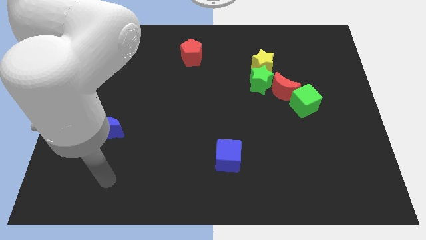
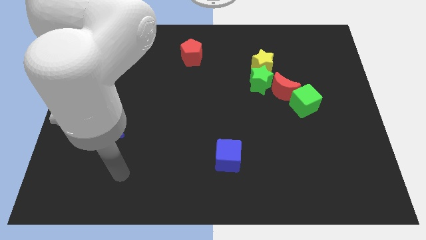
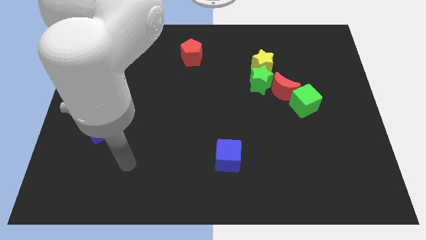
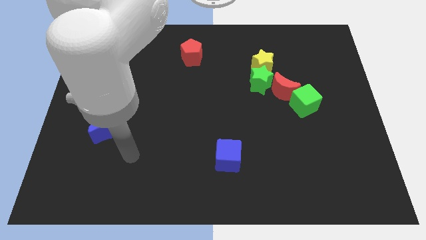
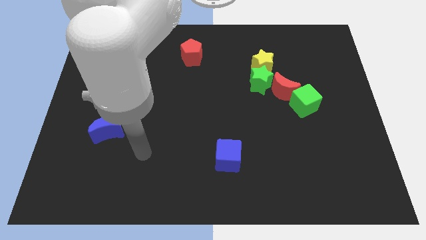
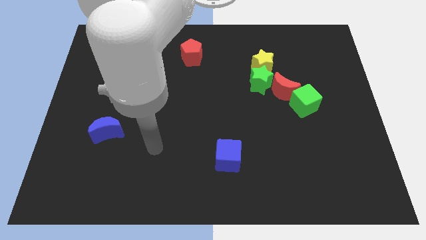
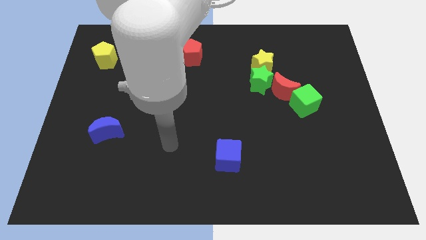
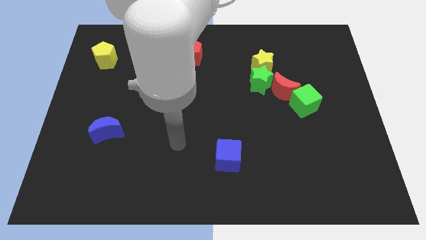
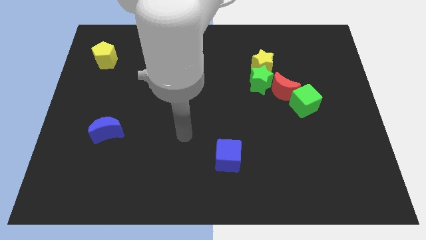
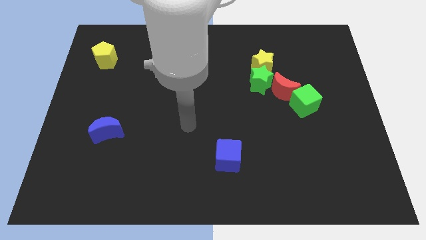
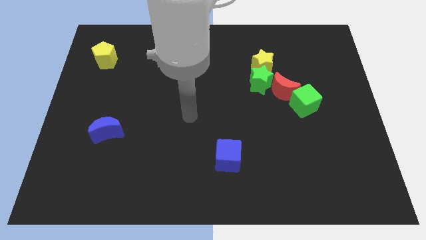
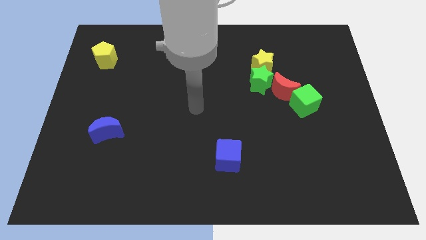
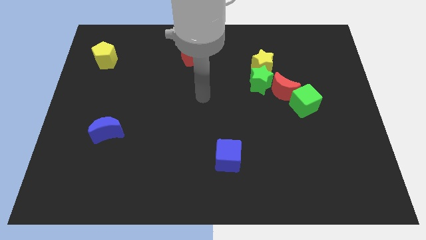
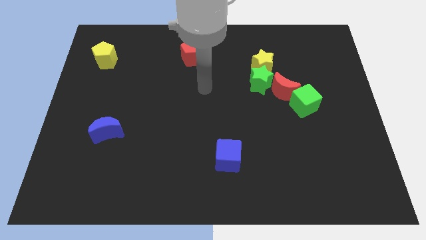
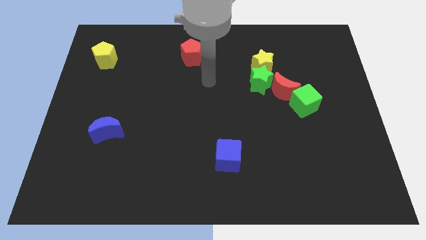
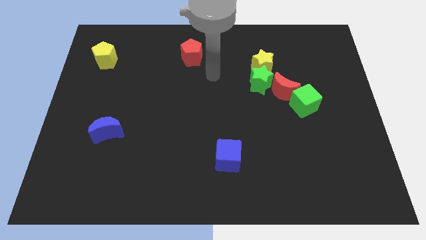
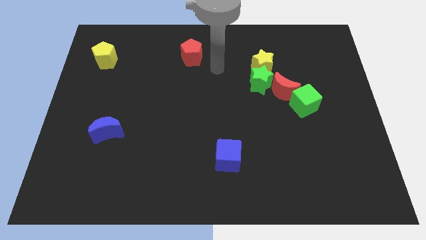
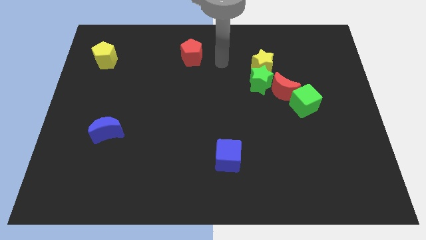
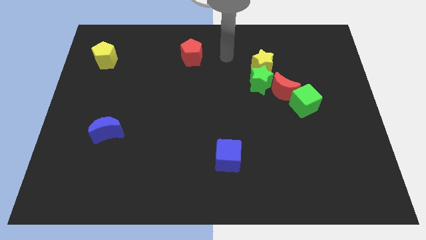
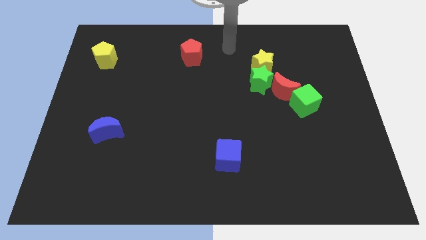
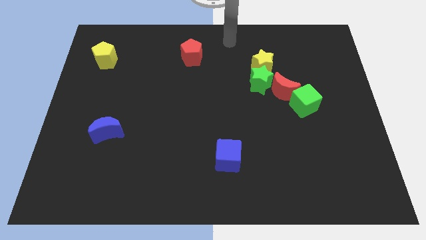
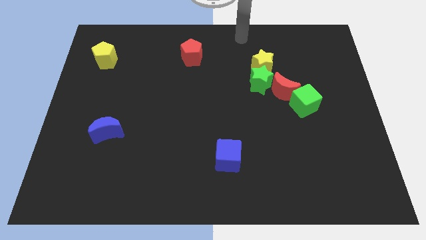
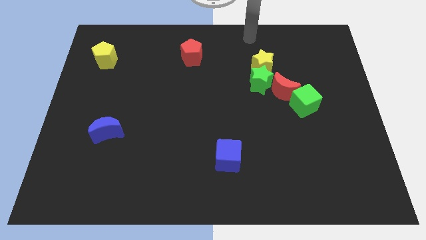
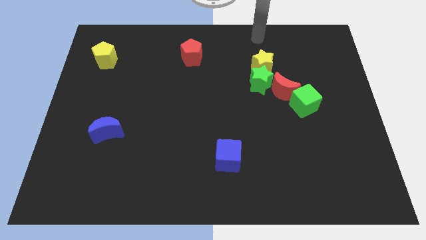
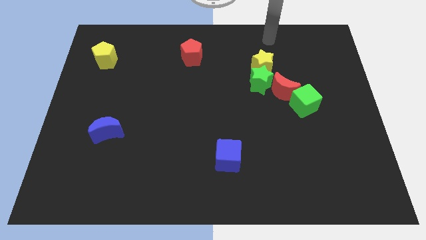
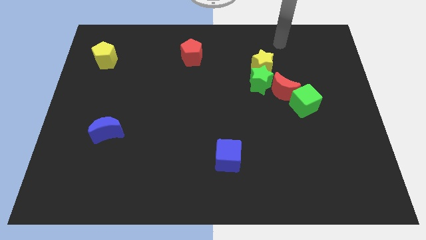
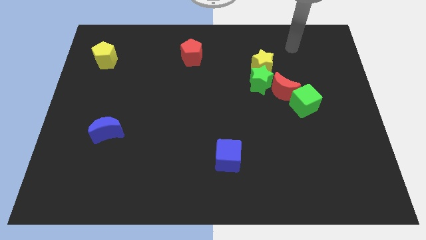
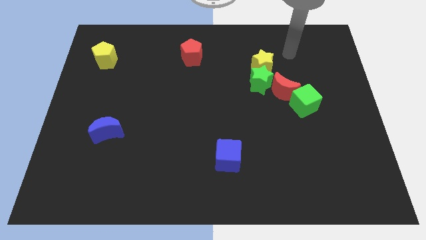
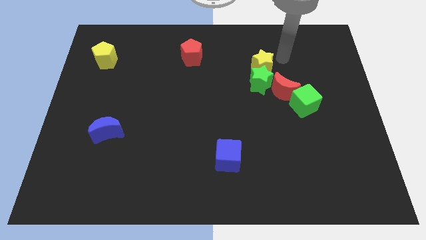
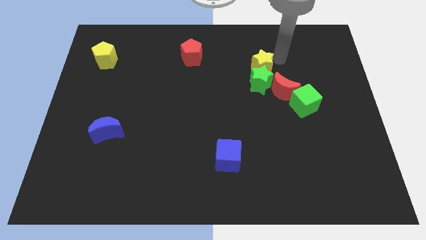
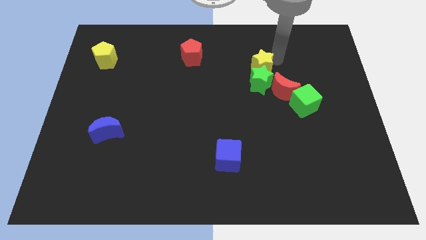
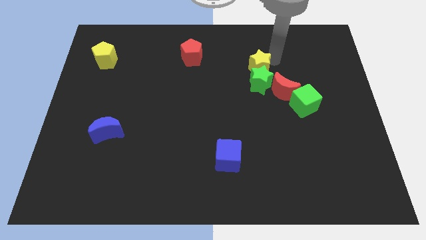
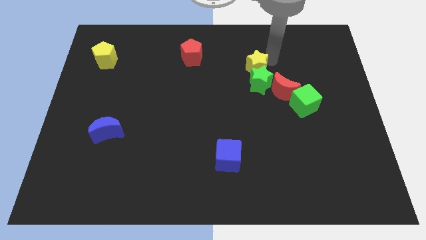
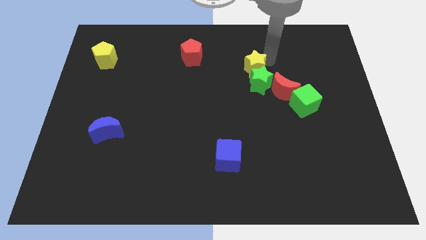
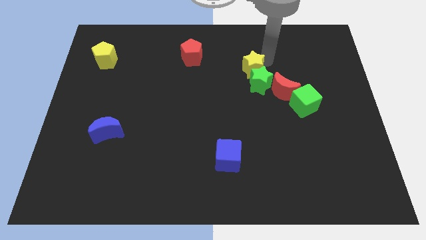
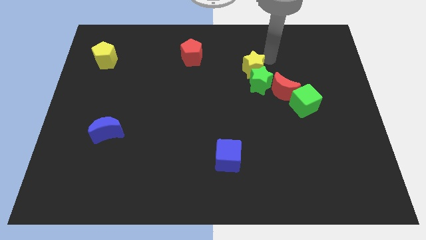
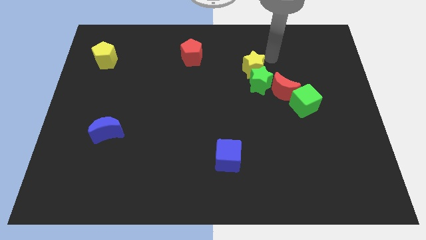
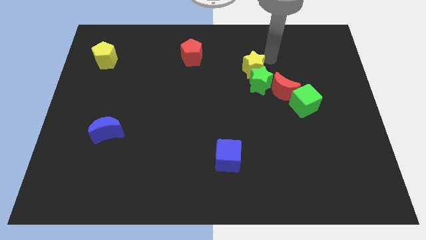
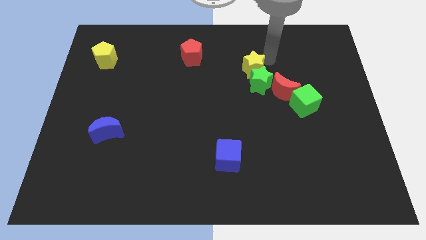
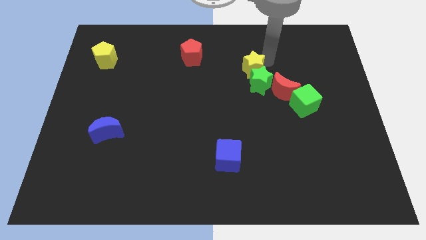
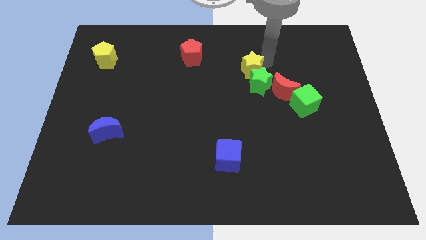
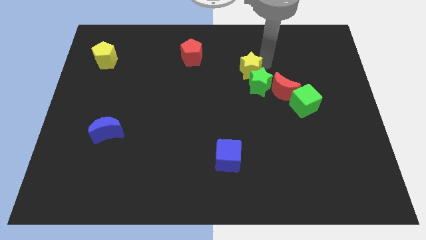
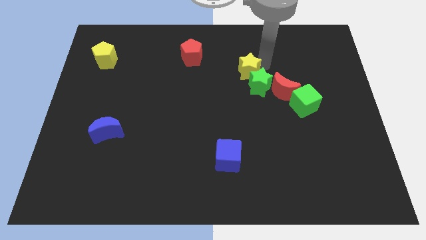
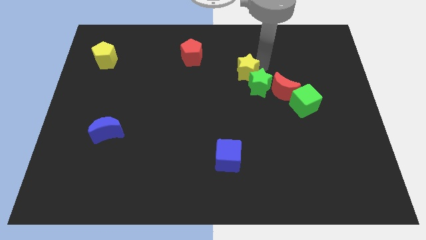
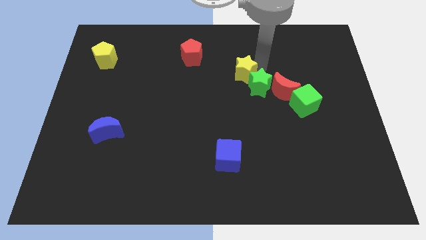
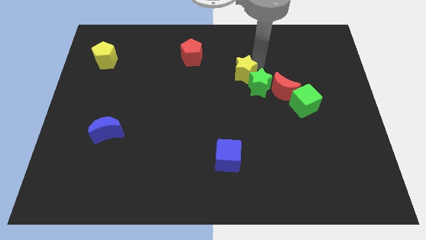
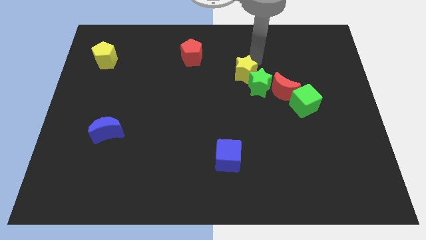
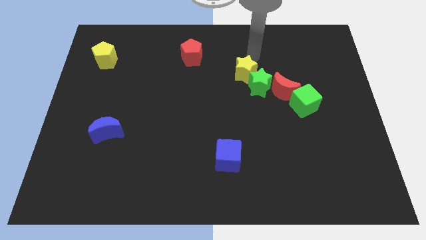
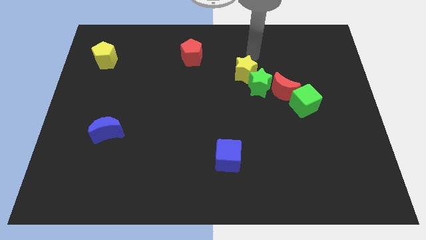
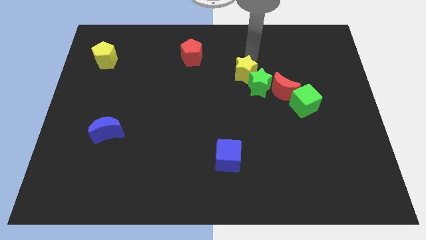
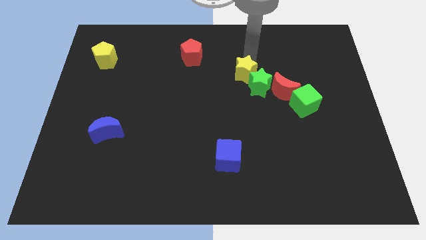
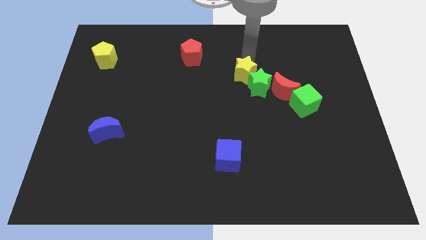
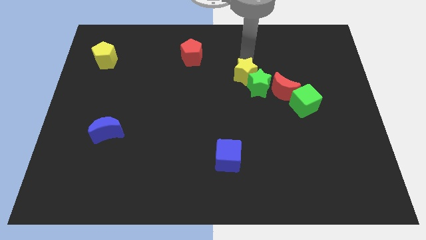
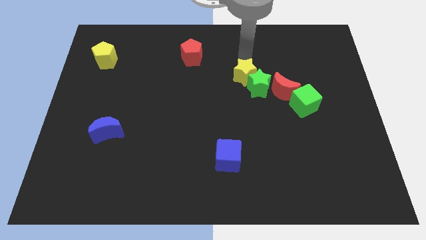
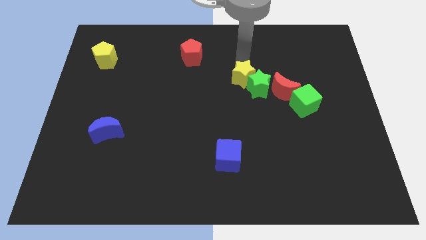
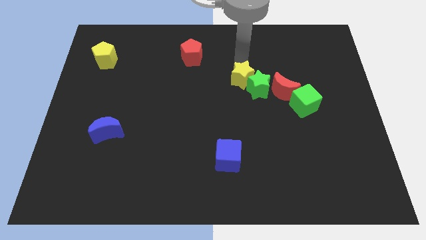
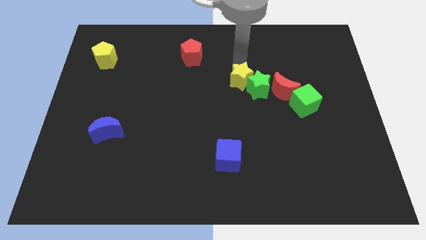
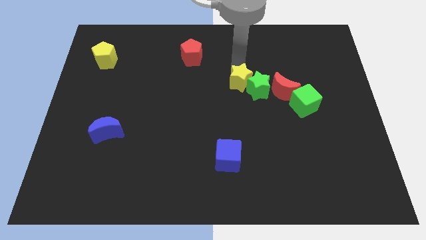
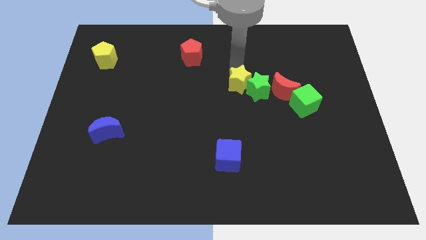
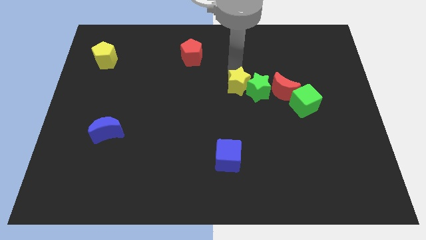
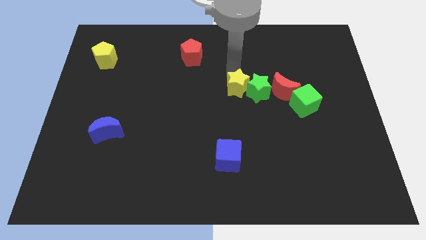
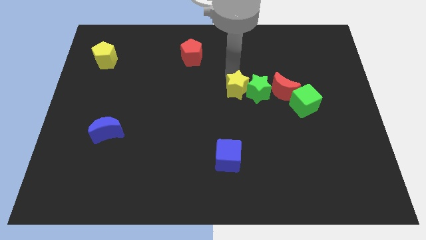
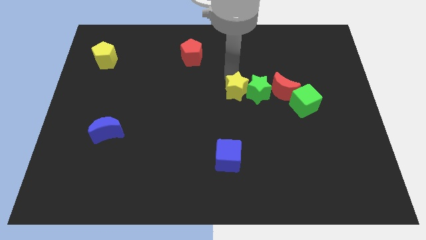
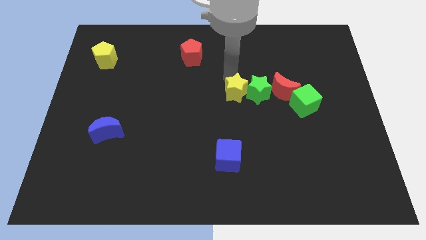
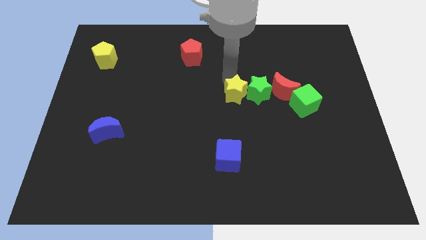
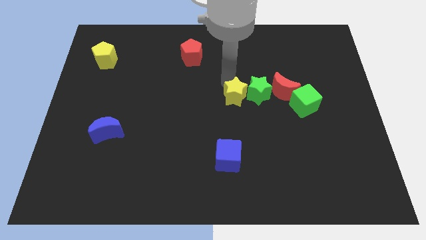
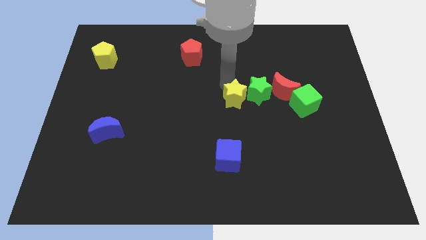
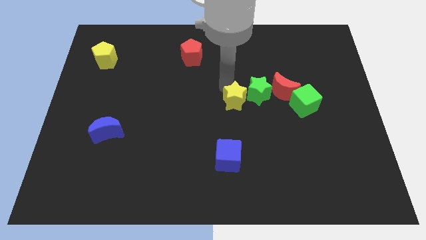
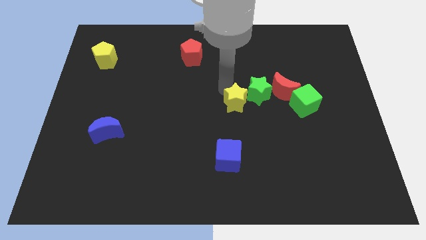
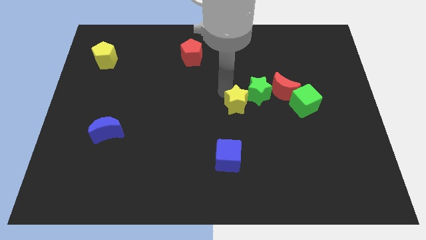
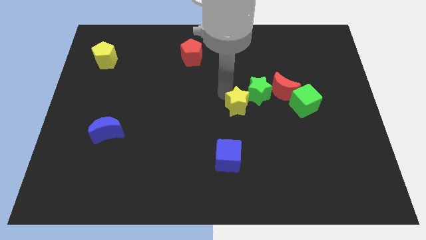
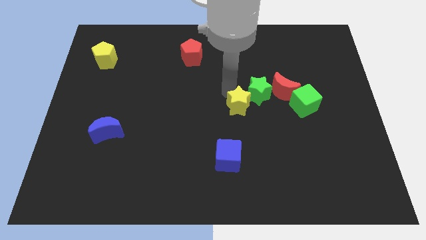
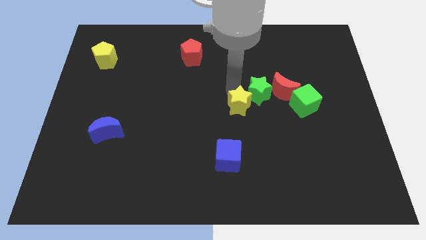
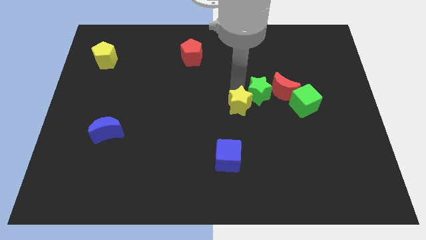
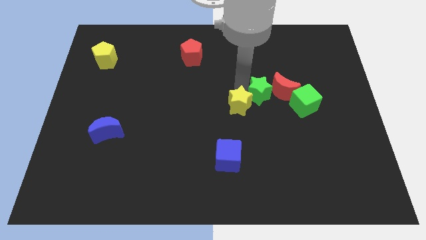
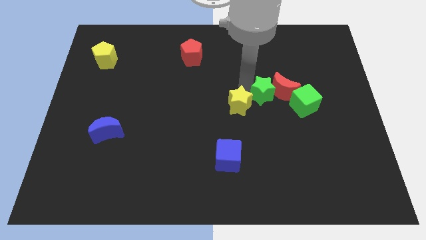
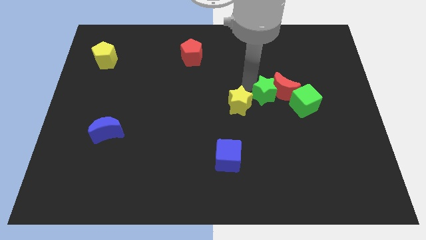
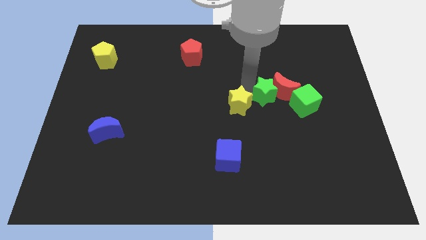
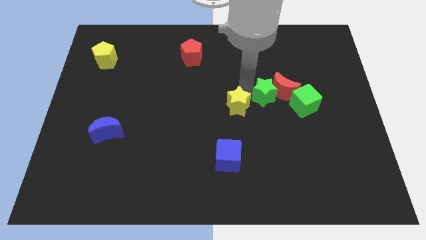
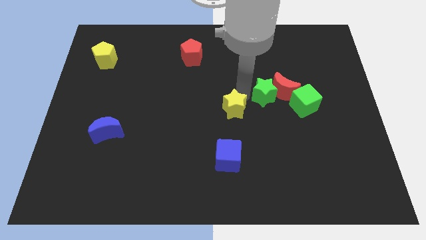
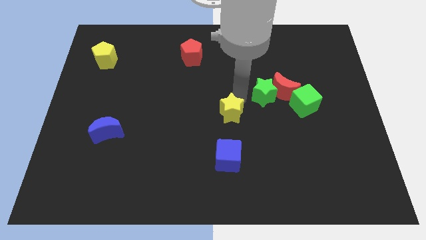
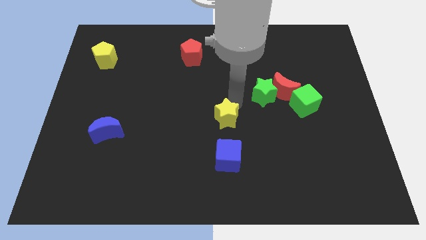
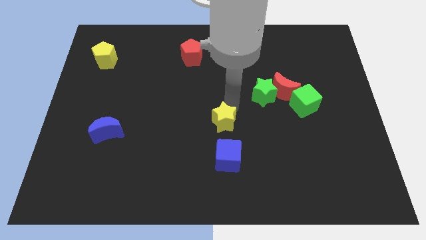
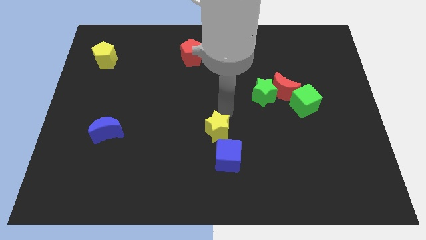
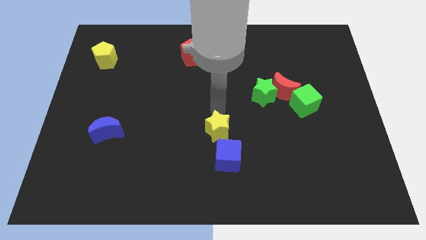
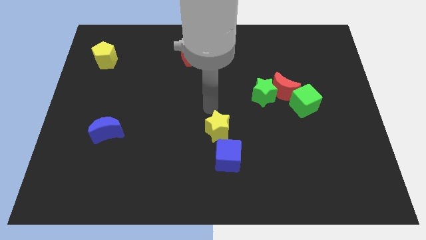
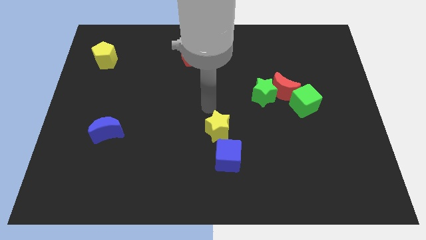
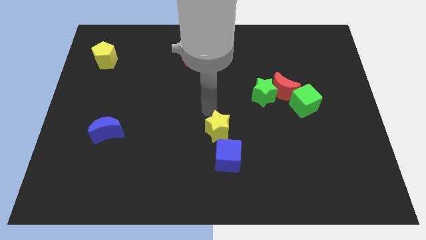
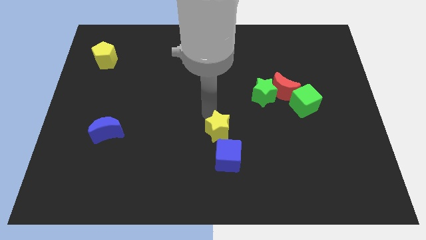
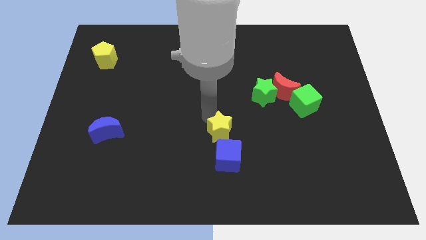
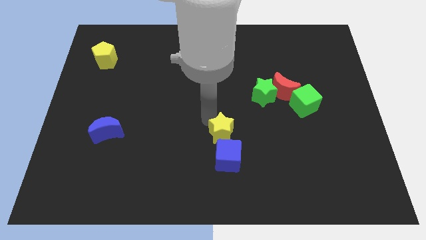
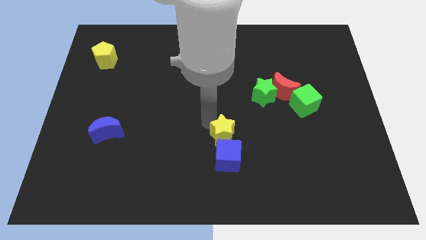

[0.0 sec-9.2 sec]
put the yellow star close to the blue cube
